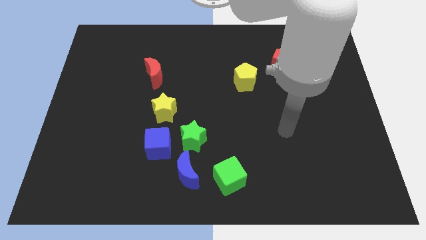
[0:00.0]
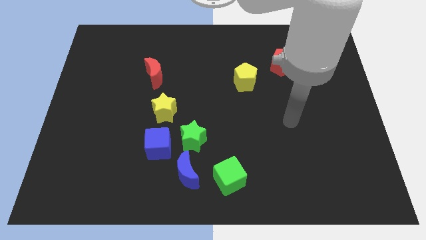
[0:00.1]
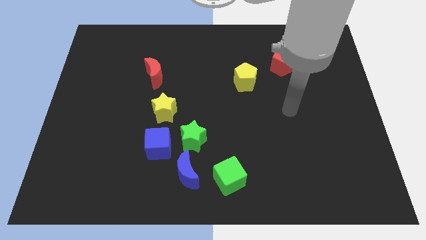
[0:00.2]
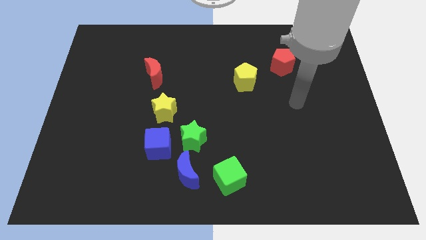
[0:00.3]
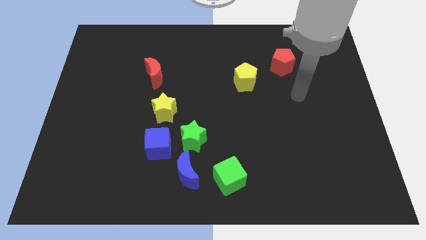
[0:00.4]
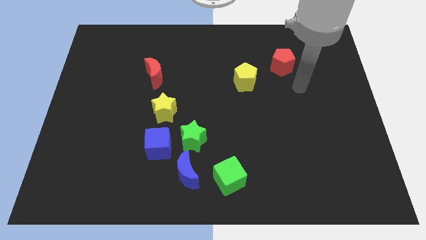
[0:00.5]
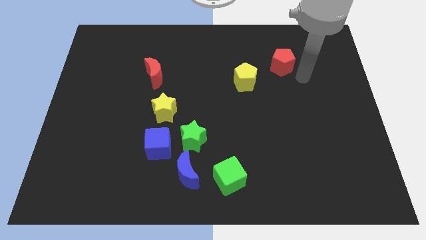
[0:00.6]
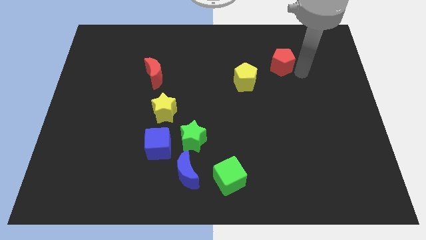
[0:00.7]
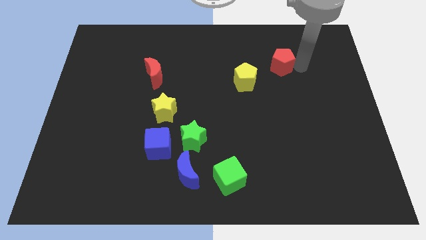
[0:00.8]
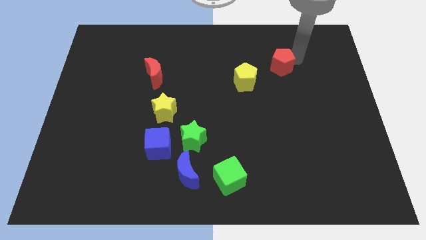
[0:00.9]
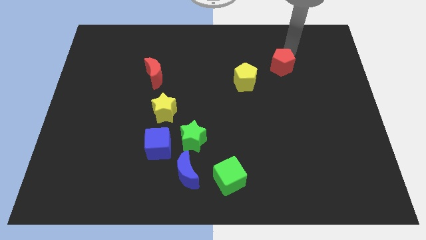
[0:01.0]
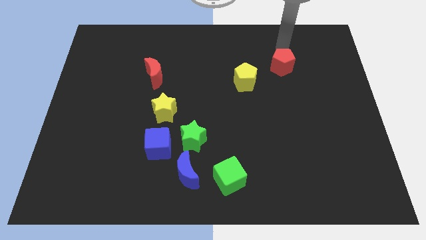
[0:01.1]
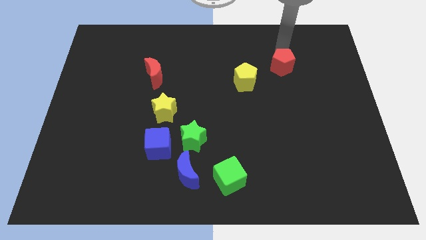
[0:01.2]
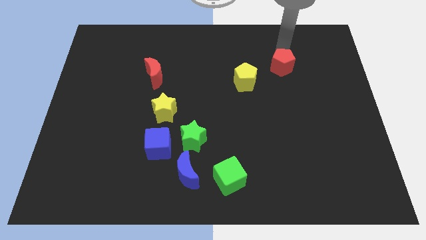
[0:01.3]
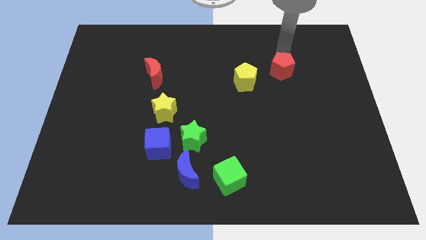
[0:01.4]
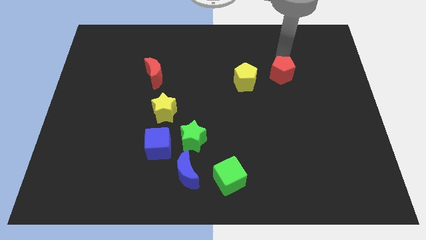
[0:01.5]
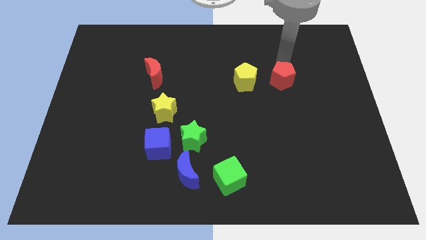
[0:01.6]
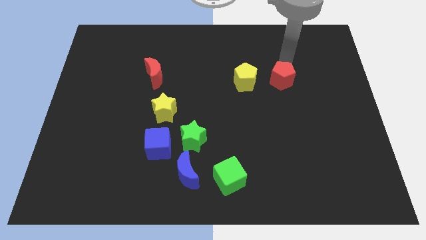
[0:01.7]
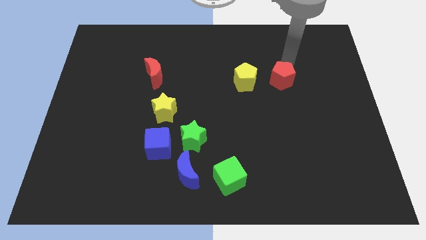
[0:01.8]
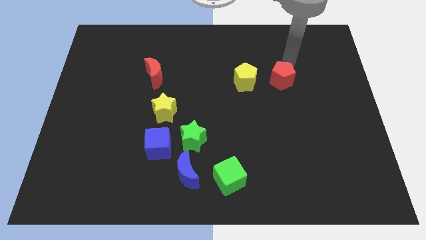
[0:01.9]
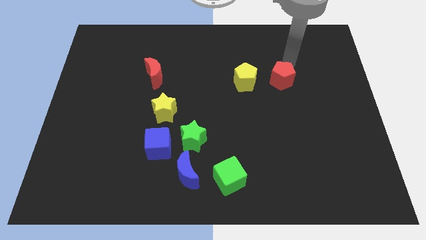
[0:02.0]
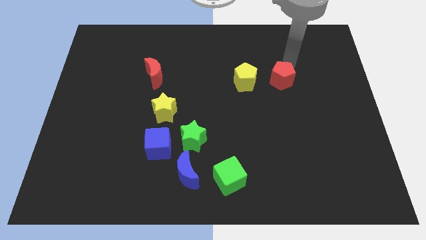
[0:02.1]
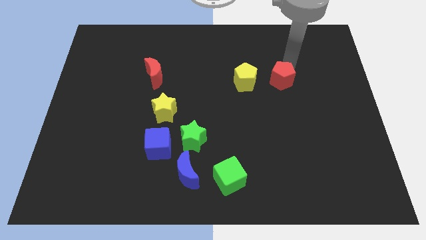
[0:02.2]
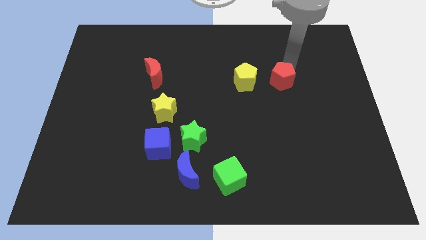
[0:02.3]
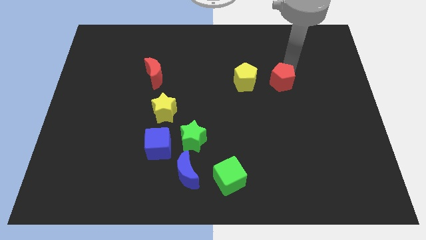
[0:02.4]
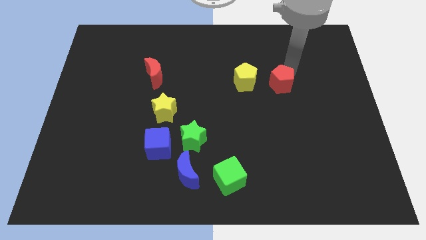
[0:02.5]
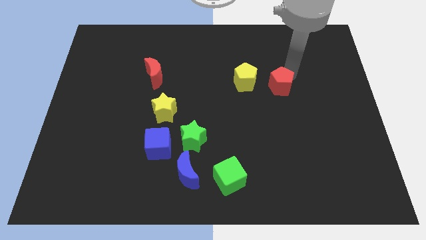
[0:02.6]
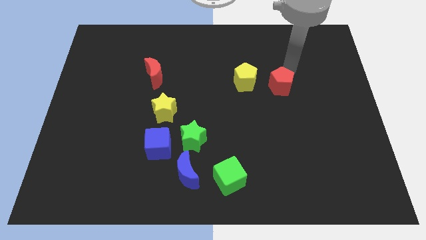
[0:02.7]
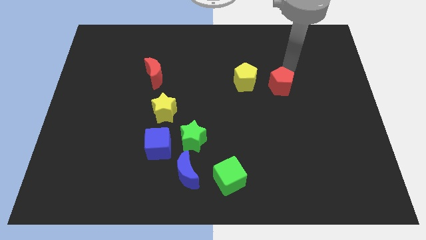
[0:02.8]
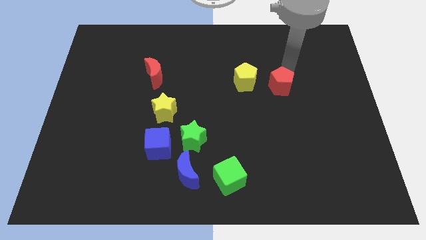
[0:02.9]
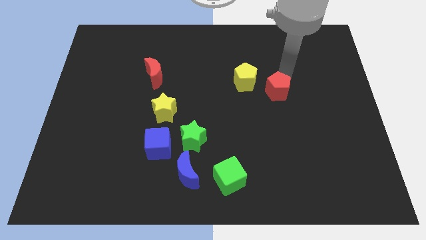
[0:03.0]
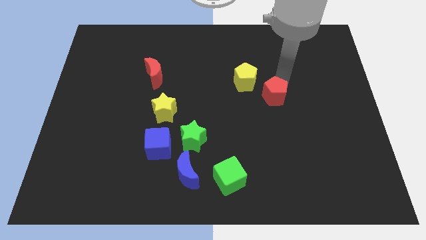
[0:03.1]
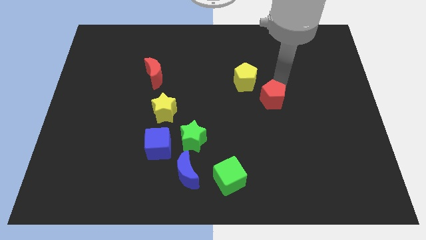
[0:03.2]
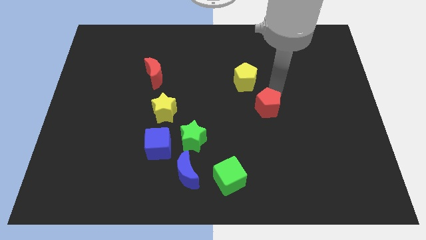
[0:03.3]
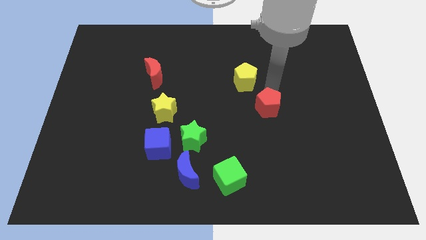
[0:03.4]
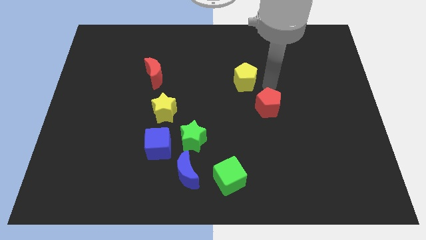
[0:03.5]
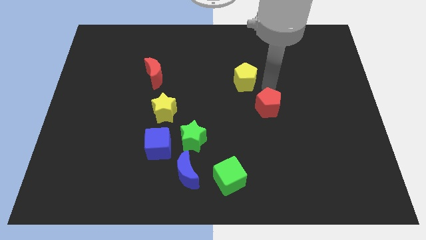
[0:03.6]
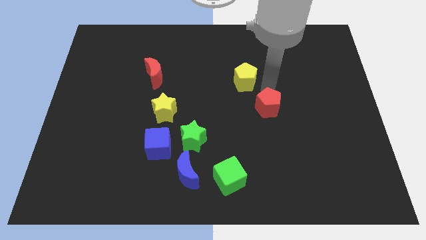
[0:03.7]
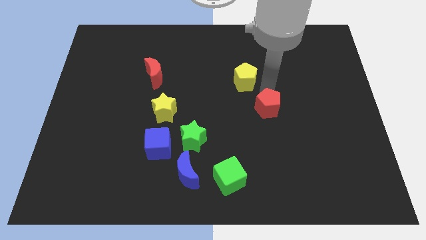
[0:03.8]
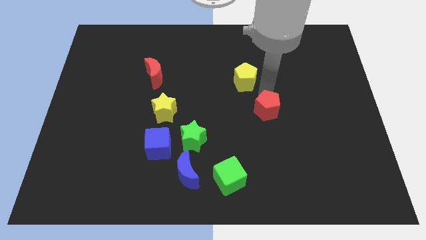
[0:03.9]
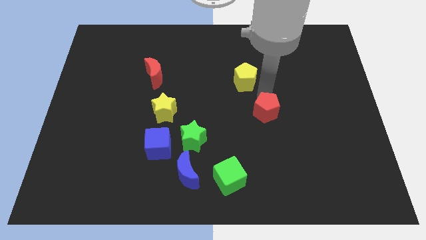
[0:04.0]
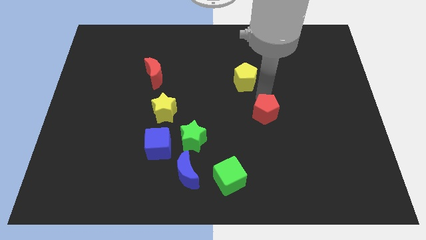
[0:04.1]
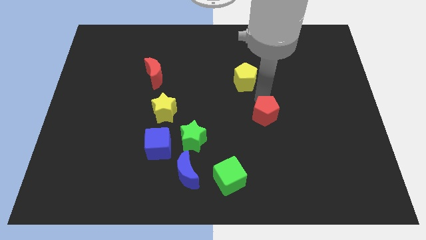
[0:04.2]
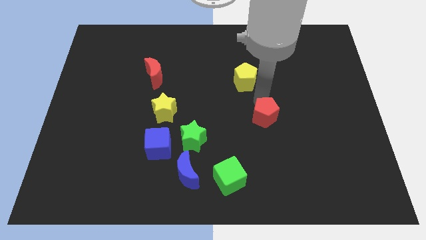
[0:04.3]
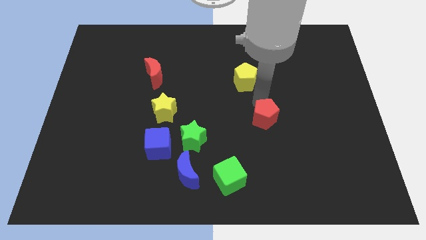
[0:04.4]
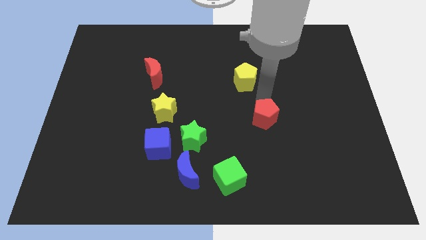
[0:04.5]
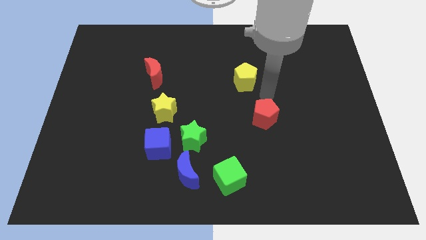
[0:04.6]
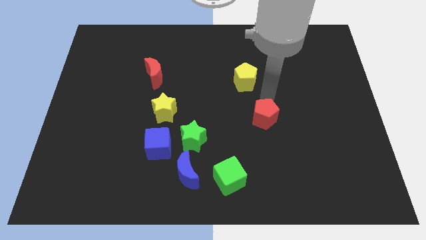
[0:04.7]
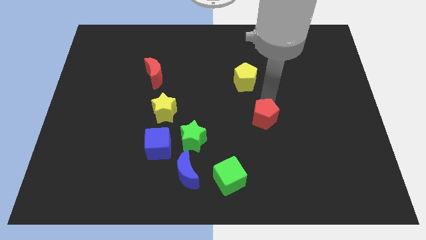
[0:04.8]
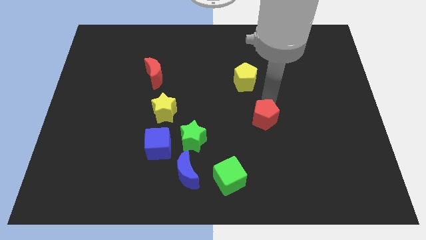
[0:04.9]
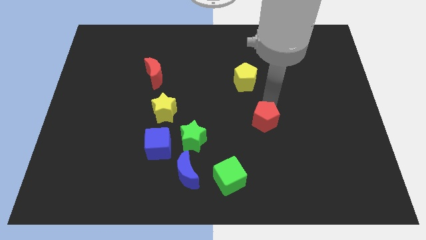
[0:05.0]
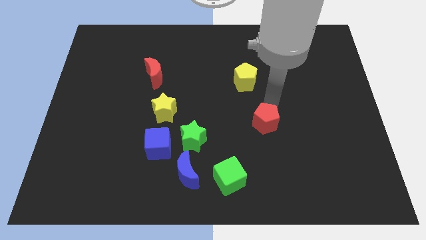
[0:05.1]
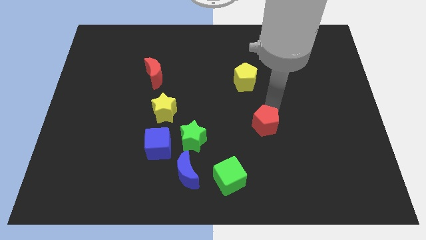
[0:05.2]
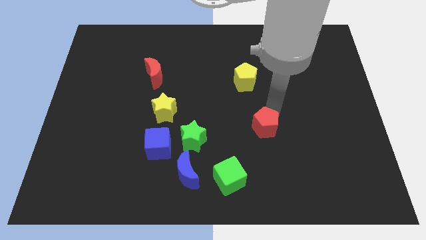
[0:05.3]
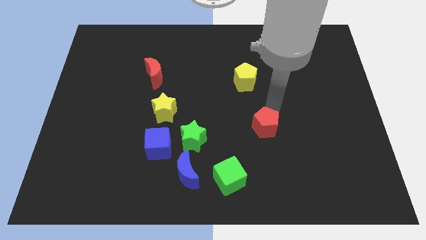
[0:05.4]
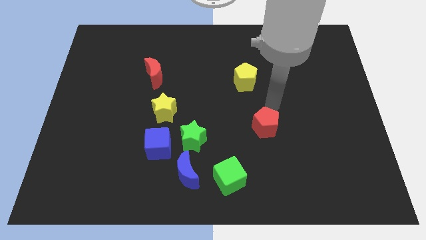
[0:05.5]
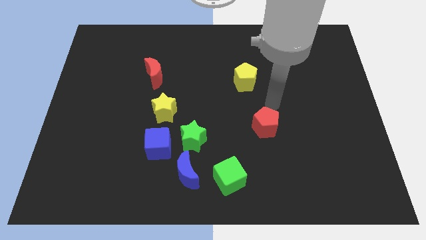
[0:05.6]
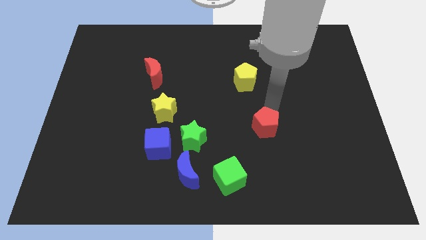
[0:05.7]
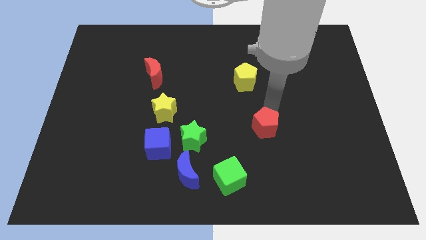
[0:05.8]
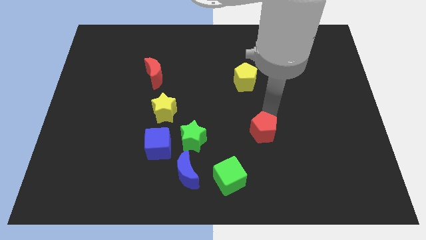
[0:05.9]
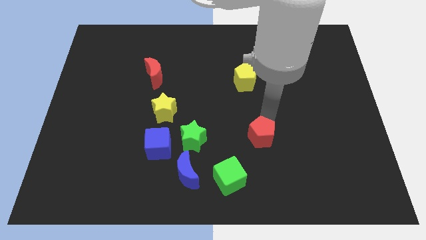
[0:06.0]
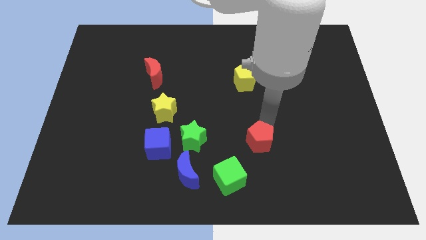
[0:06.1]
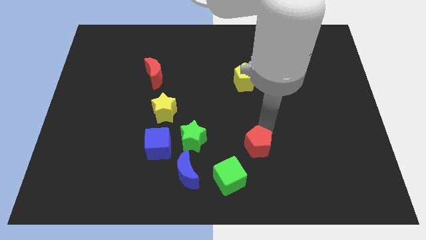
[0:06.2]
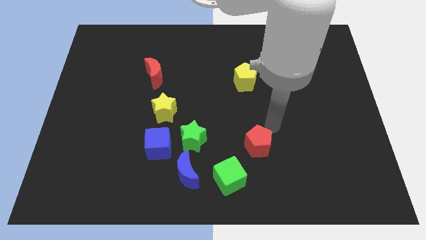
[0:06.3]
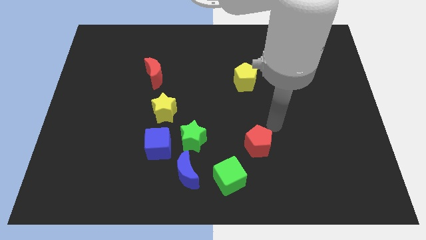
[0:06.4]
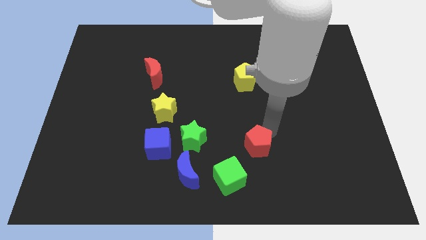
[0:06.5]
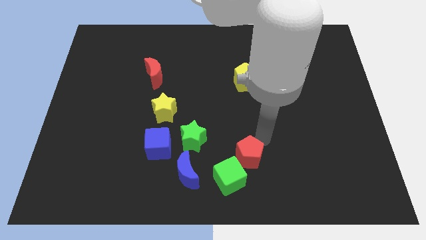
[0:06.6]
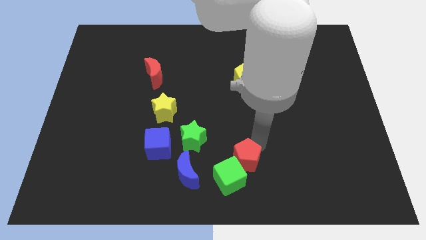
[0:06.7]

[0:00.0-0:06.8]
put the red pentagon next to the green cube
